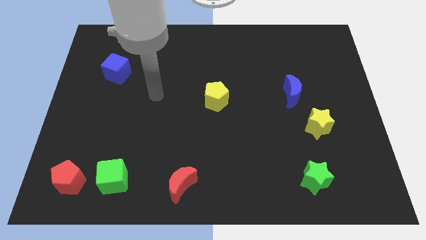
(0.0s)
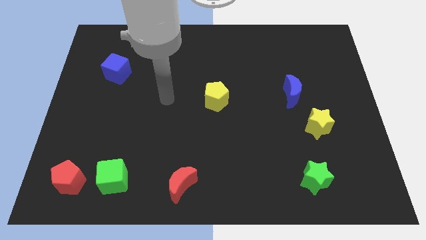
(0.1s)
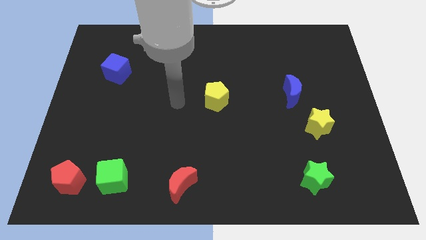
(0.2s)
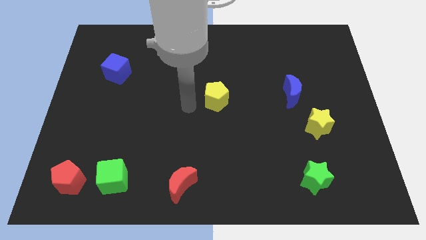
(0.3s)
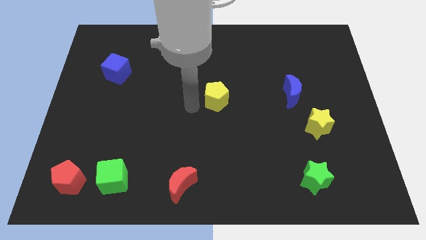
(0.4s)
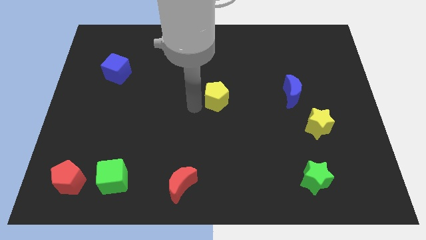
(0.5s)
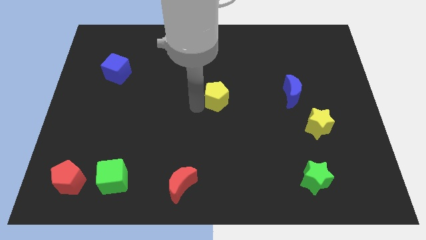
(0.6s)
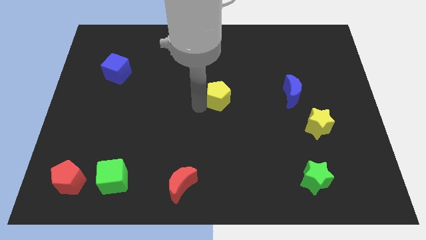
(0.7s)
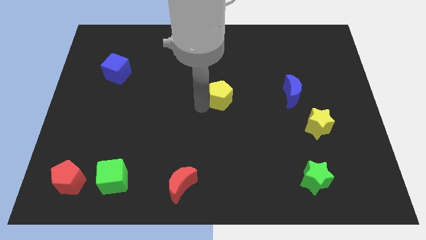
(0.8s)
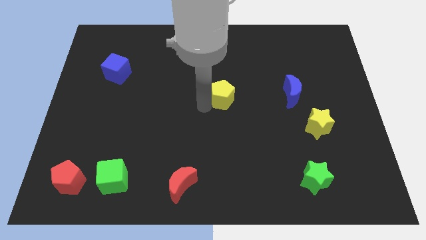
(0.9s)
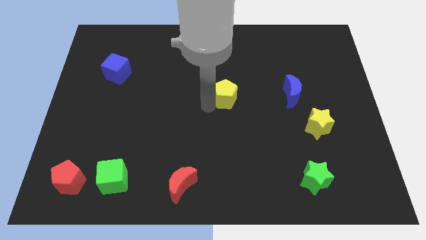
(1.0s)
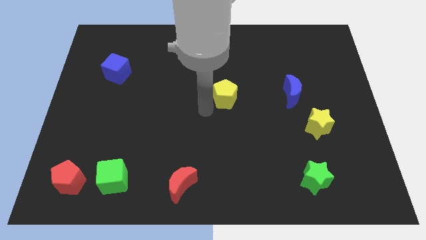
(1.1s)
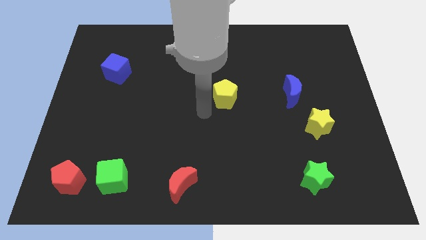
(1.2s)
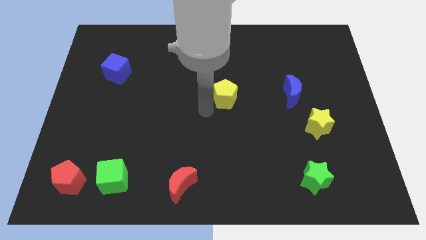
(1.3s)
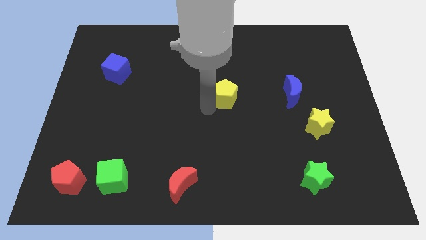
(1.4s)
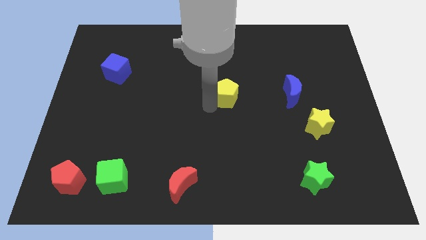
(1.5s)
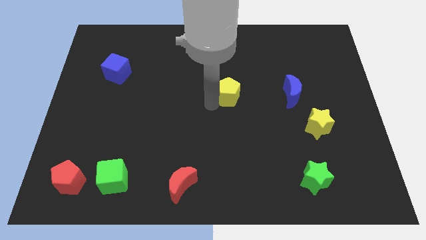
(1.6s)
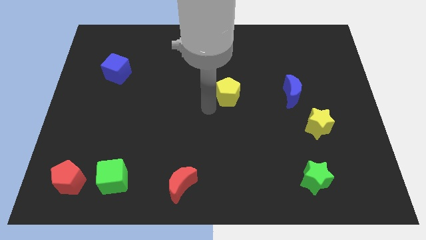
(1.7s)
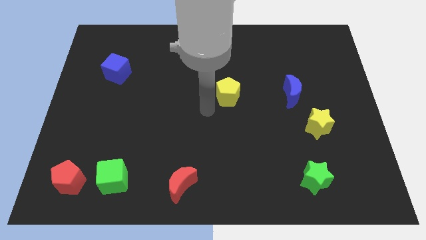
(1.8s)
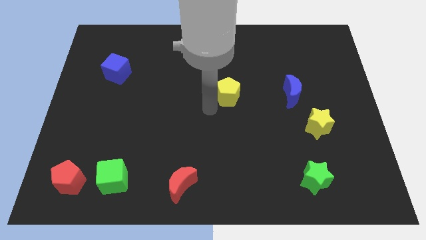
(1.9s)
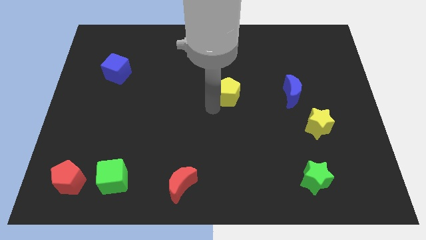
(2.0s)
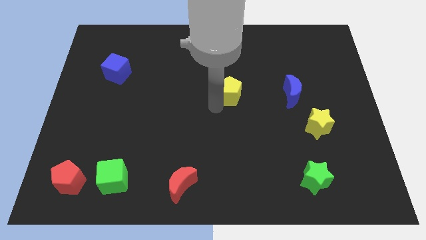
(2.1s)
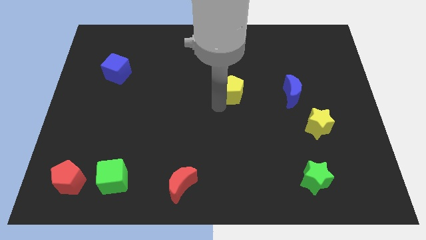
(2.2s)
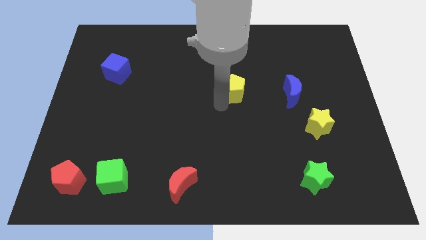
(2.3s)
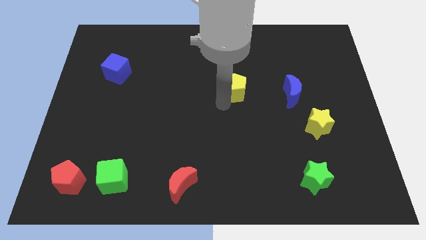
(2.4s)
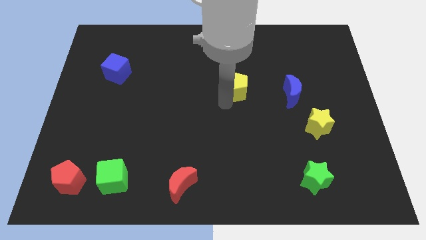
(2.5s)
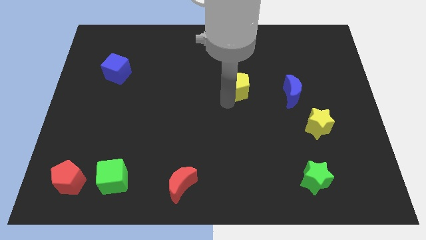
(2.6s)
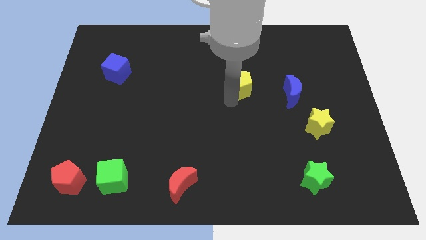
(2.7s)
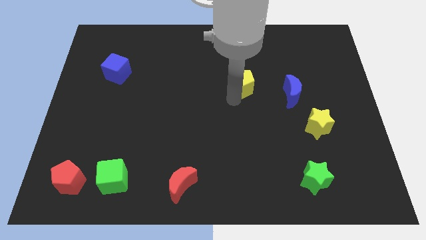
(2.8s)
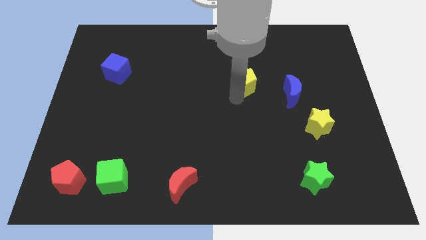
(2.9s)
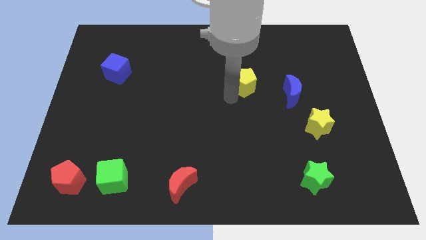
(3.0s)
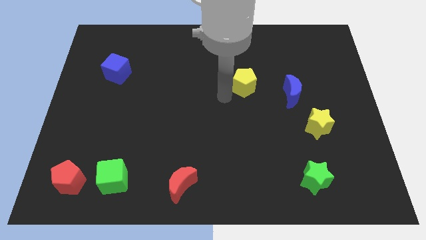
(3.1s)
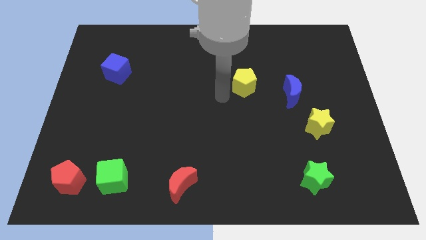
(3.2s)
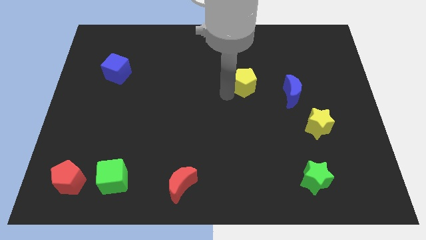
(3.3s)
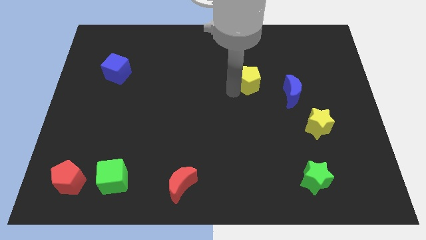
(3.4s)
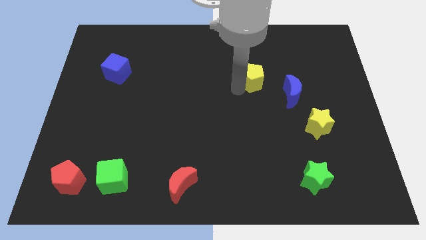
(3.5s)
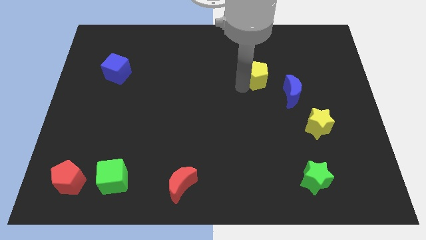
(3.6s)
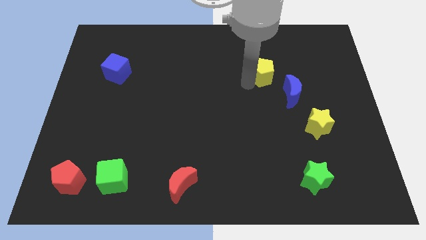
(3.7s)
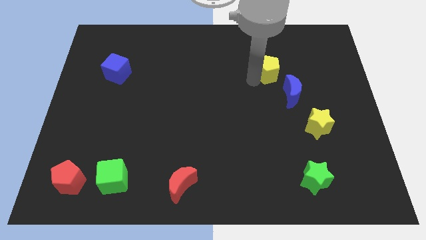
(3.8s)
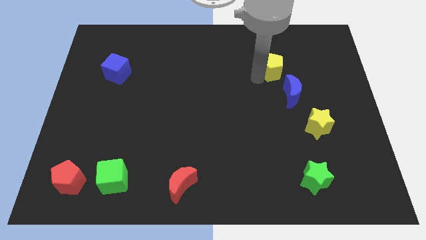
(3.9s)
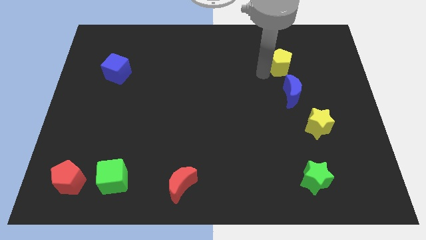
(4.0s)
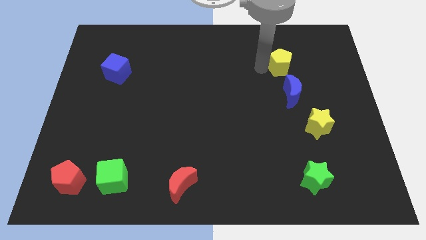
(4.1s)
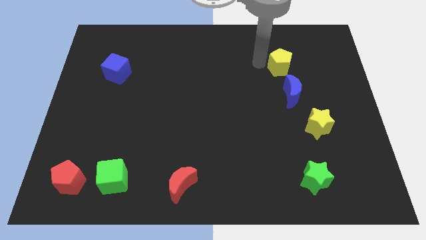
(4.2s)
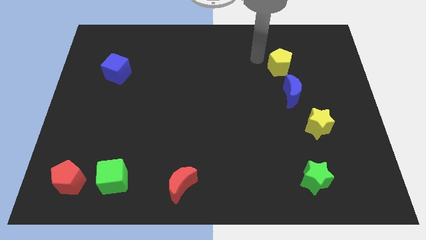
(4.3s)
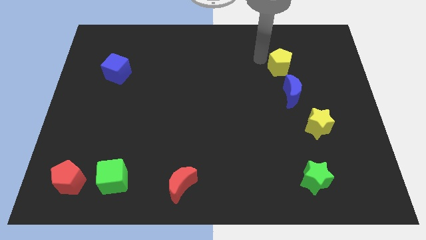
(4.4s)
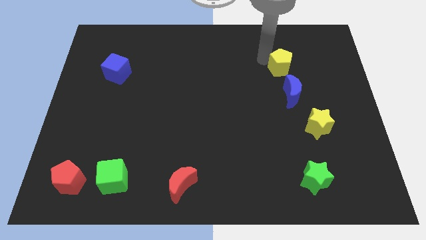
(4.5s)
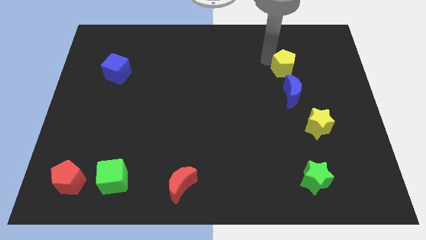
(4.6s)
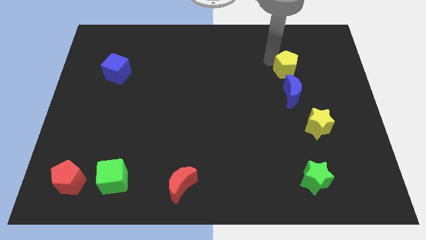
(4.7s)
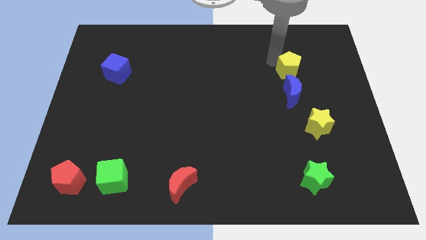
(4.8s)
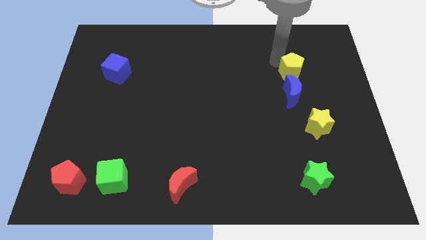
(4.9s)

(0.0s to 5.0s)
put the yellow pentagon diagonally up and to the right of the blue moon

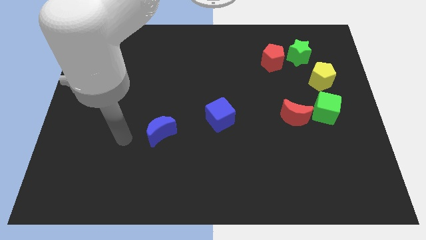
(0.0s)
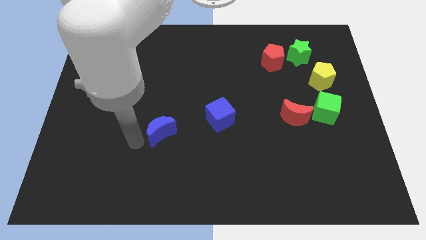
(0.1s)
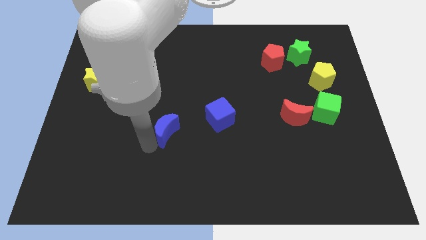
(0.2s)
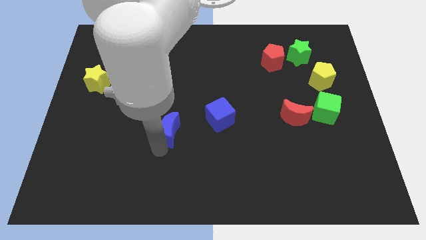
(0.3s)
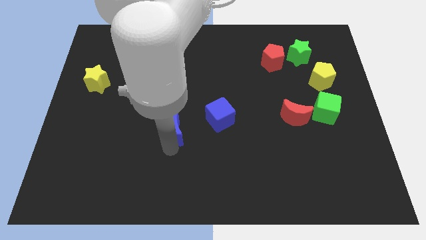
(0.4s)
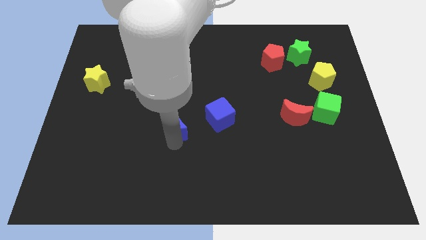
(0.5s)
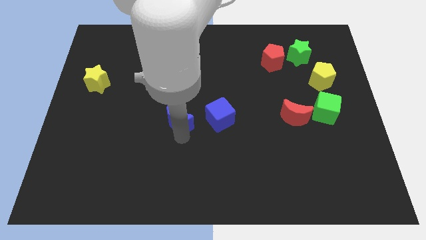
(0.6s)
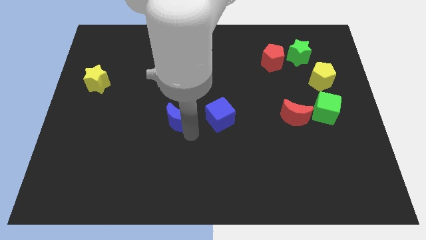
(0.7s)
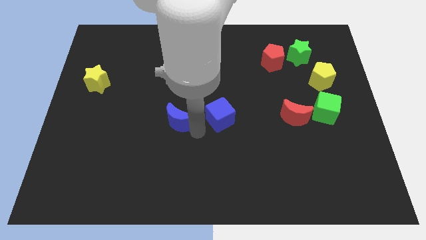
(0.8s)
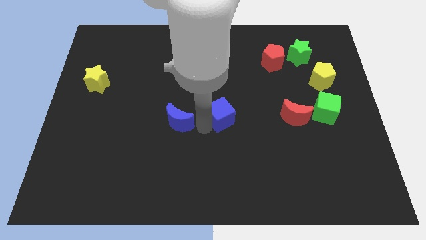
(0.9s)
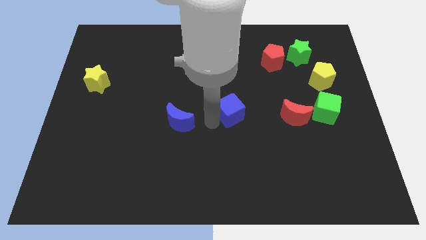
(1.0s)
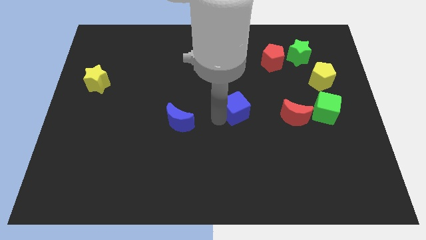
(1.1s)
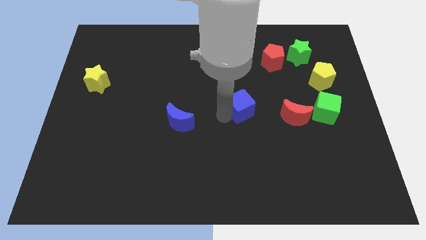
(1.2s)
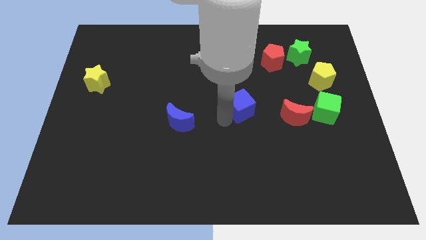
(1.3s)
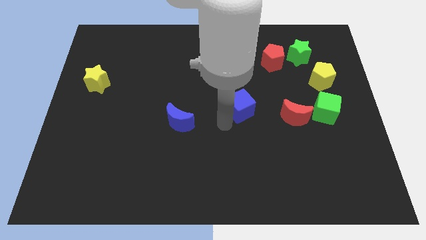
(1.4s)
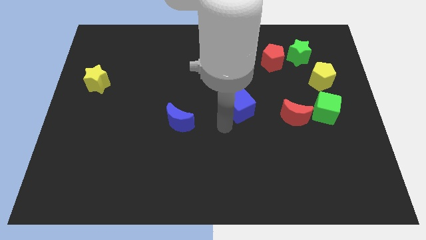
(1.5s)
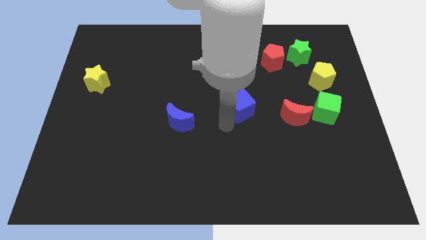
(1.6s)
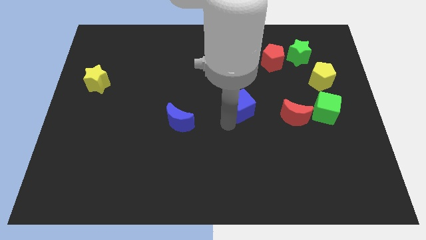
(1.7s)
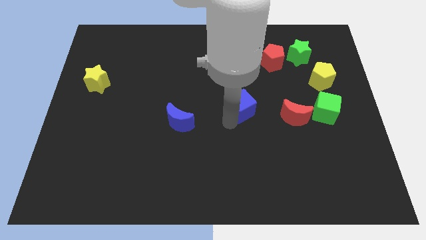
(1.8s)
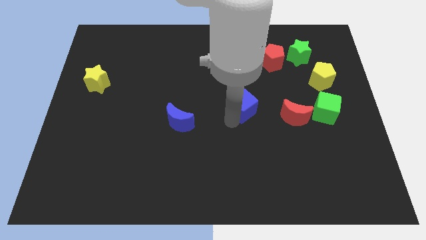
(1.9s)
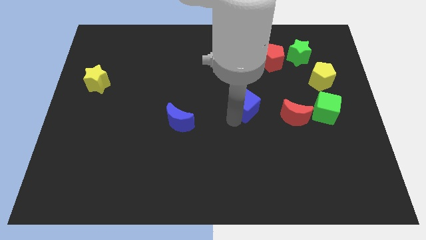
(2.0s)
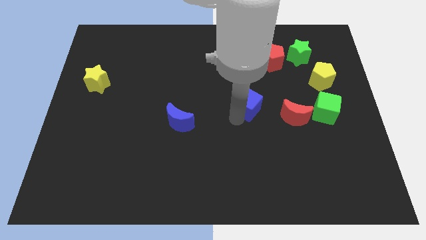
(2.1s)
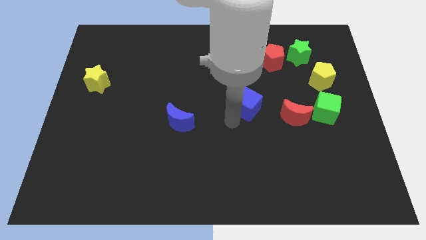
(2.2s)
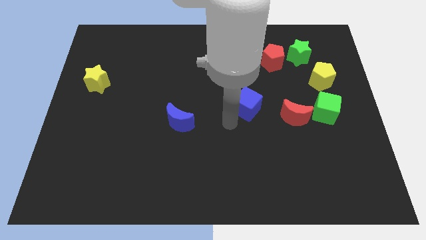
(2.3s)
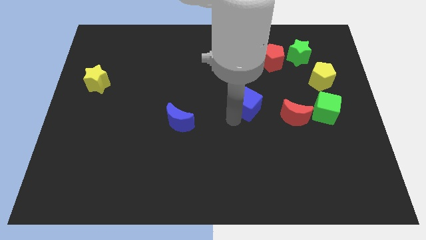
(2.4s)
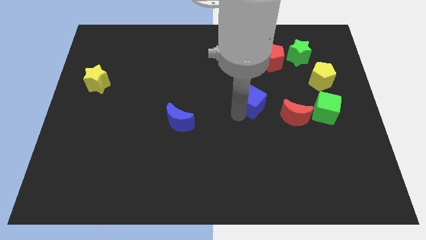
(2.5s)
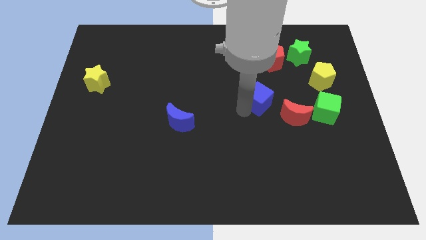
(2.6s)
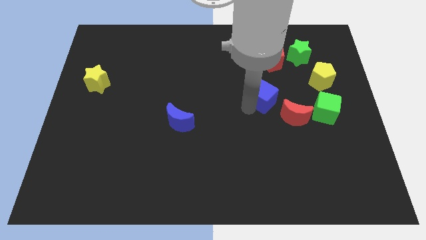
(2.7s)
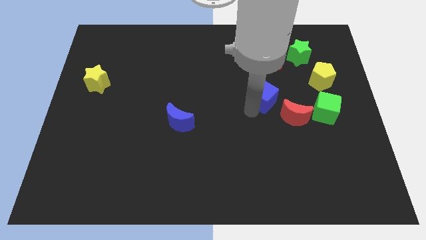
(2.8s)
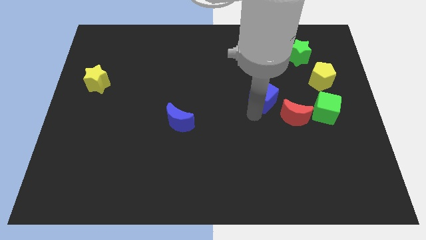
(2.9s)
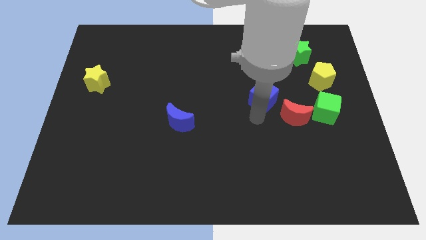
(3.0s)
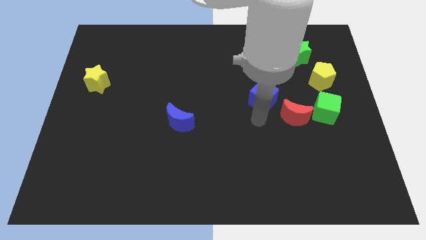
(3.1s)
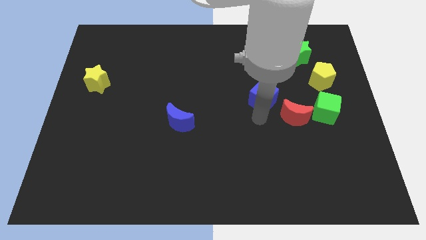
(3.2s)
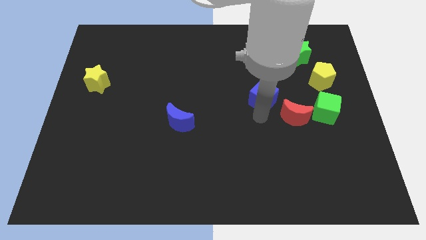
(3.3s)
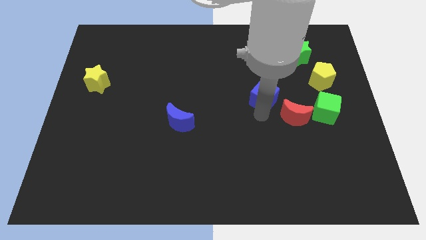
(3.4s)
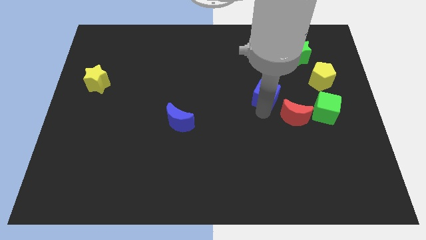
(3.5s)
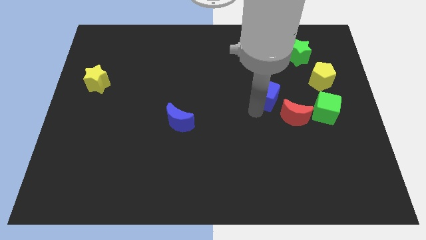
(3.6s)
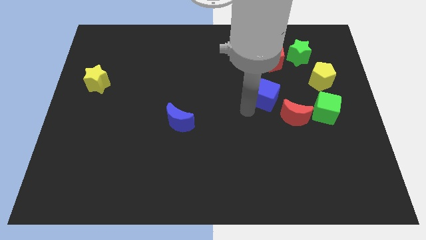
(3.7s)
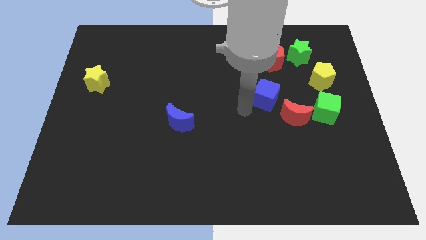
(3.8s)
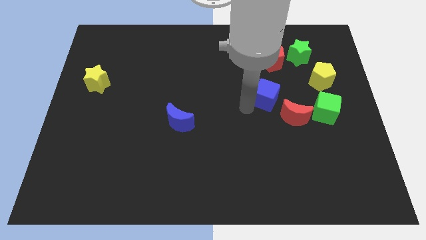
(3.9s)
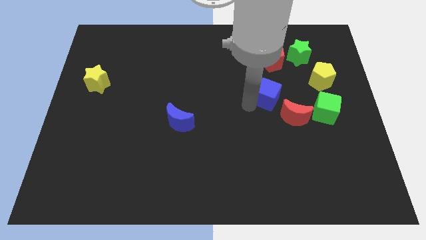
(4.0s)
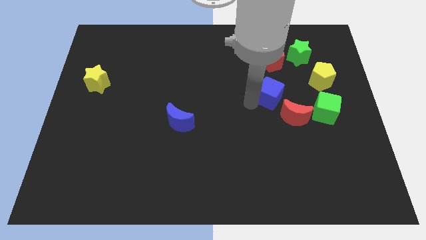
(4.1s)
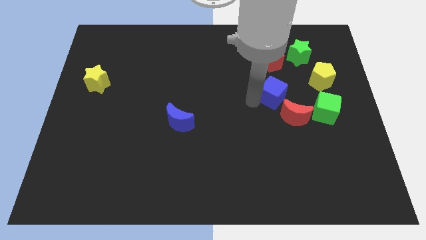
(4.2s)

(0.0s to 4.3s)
put the blue cube to the top of the red moon
